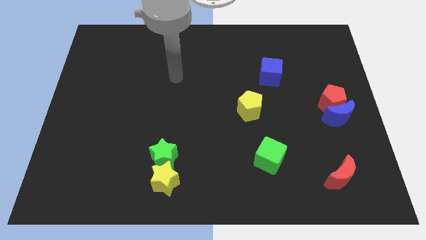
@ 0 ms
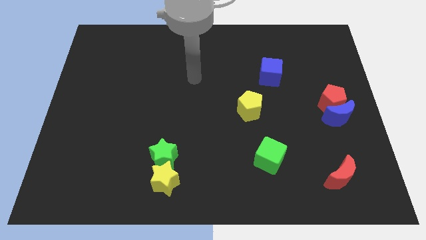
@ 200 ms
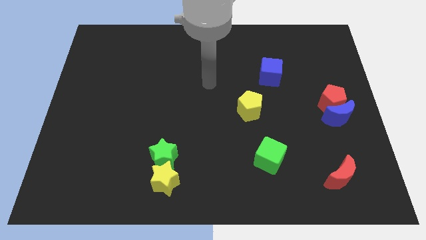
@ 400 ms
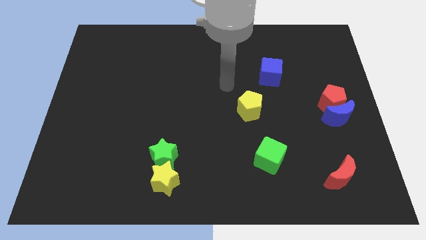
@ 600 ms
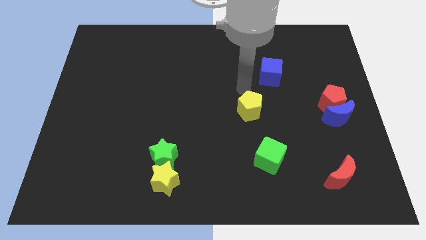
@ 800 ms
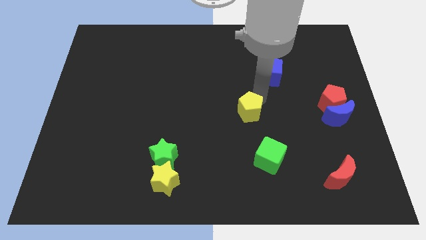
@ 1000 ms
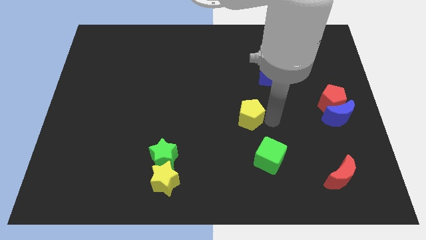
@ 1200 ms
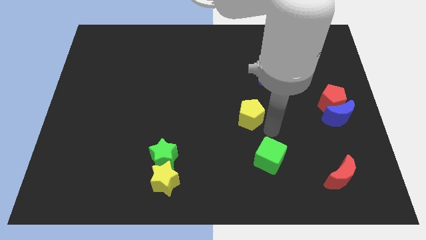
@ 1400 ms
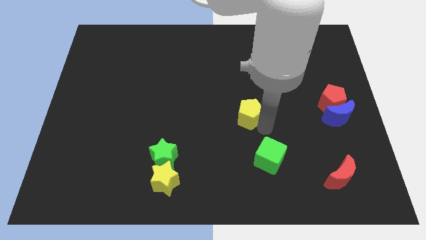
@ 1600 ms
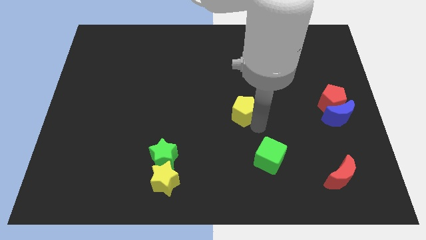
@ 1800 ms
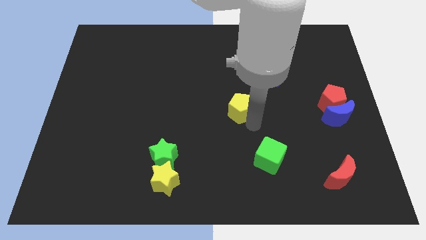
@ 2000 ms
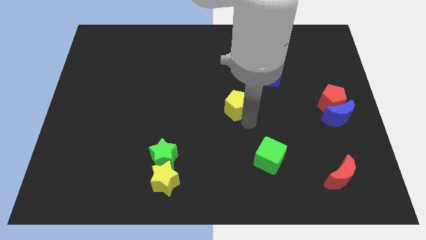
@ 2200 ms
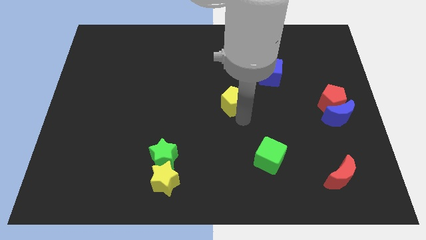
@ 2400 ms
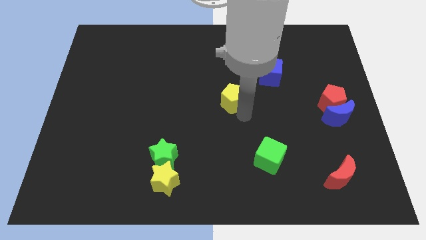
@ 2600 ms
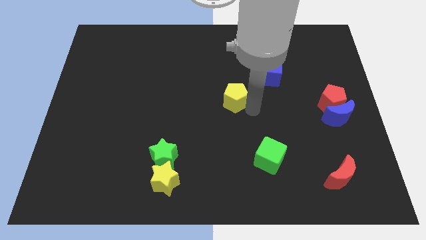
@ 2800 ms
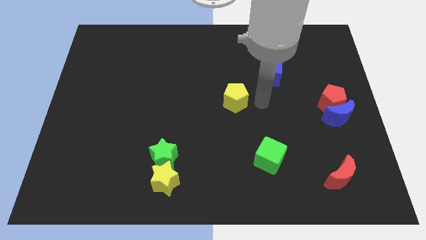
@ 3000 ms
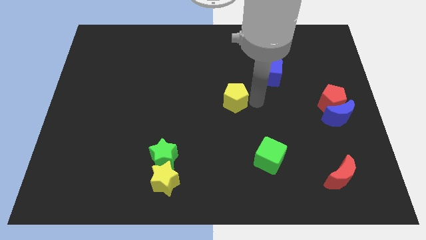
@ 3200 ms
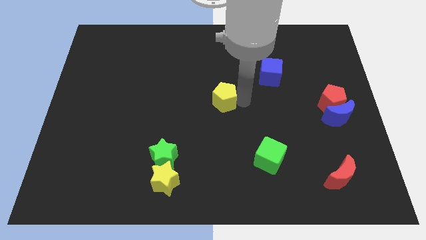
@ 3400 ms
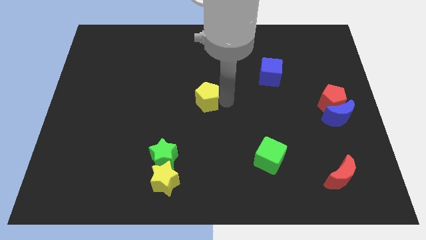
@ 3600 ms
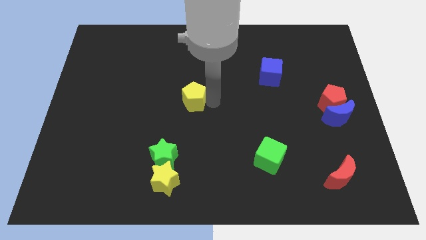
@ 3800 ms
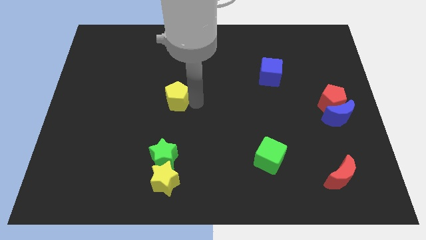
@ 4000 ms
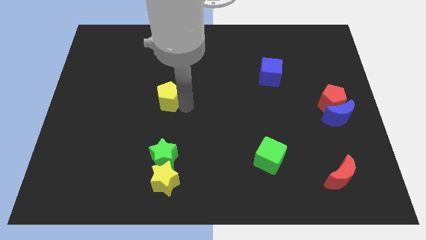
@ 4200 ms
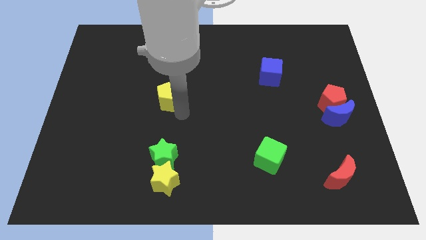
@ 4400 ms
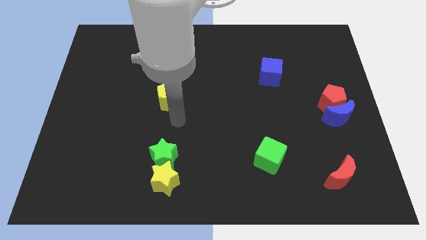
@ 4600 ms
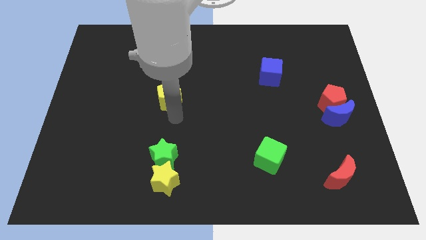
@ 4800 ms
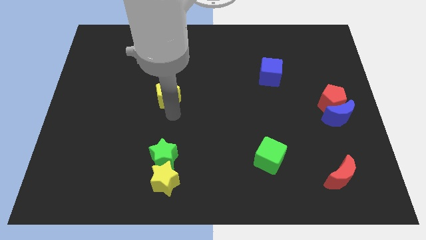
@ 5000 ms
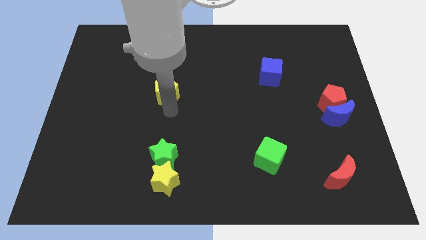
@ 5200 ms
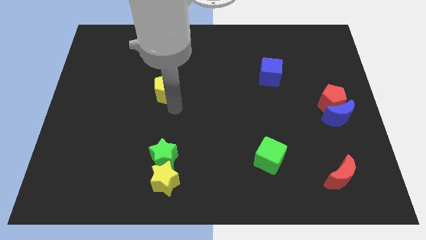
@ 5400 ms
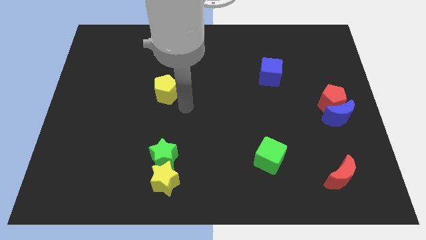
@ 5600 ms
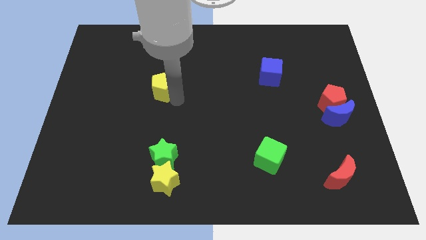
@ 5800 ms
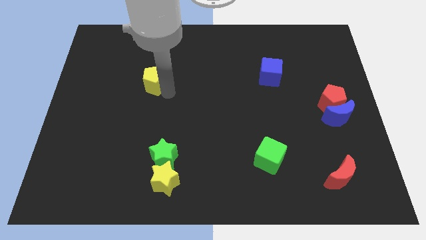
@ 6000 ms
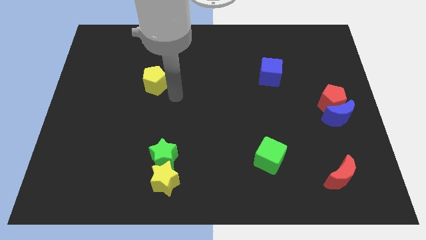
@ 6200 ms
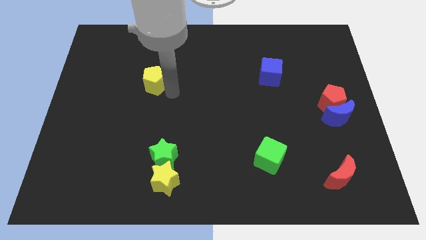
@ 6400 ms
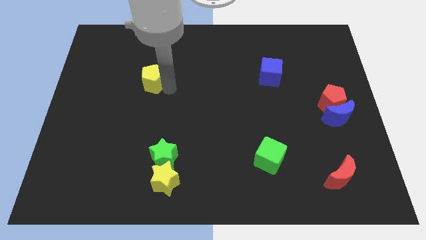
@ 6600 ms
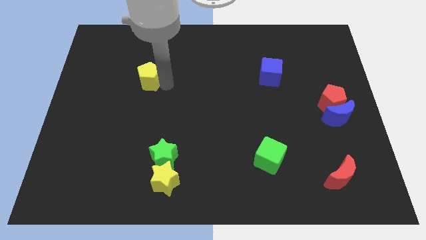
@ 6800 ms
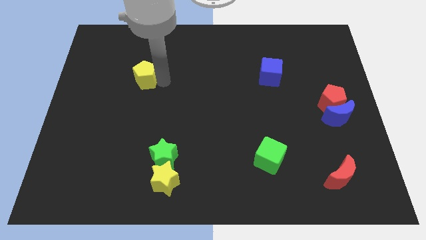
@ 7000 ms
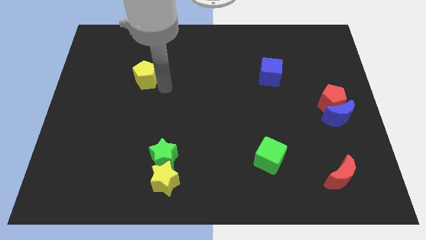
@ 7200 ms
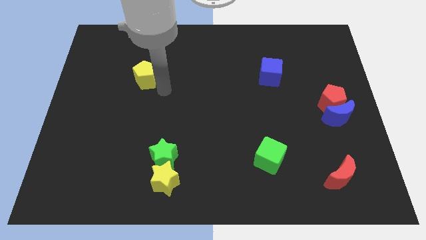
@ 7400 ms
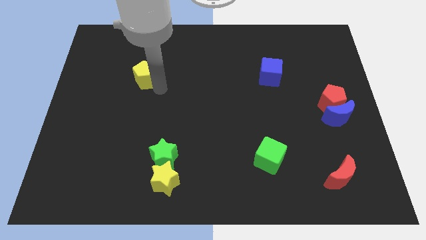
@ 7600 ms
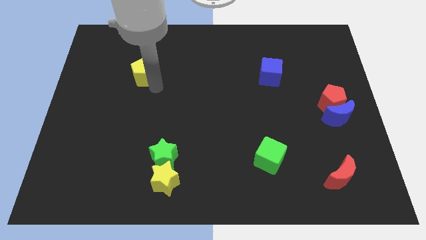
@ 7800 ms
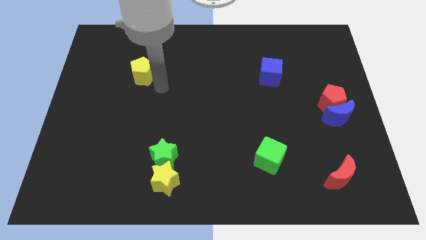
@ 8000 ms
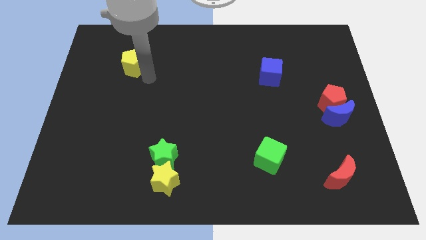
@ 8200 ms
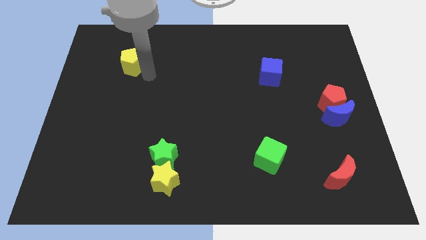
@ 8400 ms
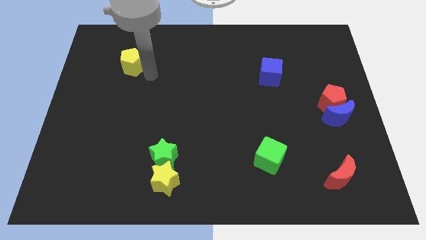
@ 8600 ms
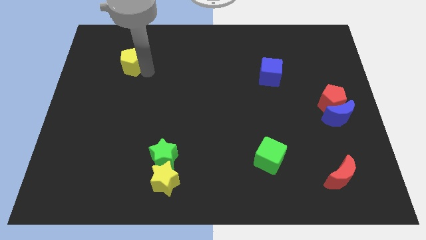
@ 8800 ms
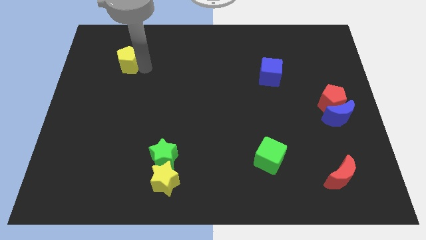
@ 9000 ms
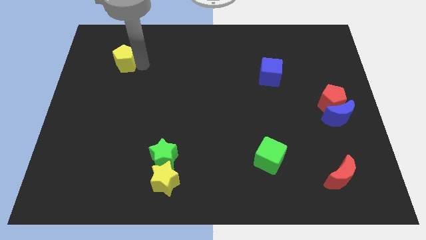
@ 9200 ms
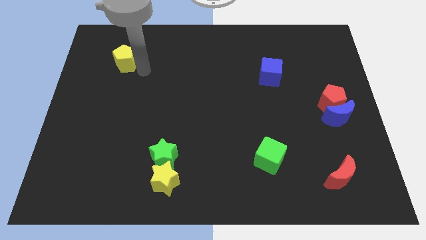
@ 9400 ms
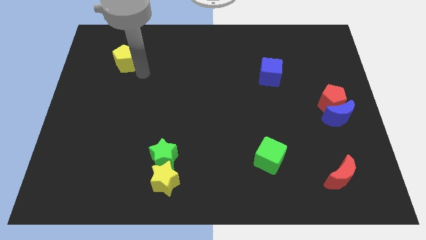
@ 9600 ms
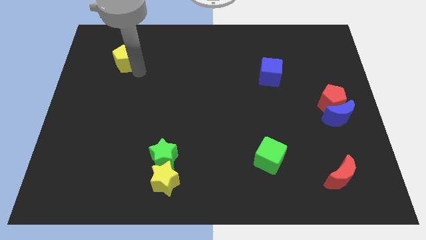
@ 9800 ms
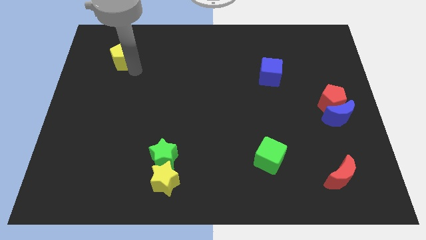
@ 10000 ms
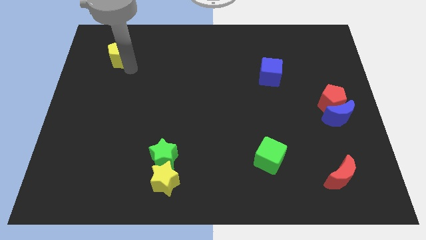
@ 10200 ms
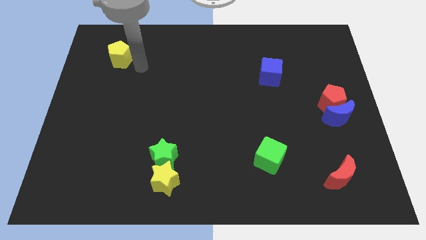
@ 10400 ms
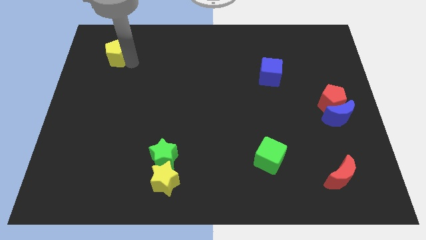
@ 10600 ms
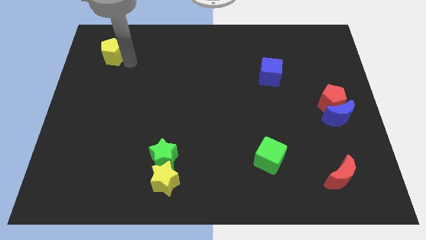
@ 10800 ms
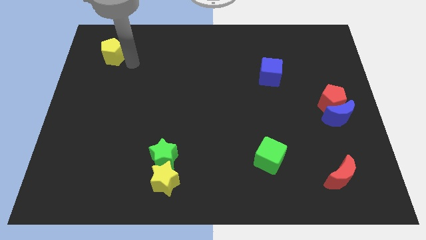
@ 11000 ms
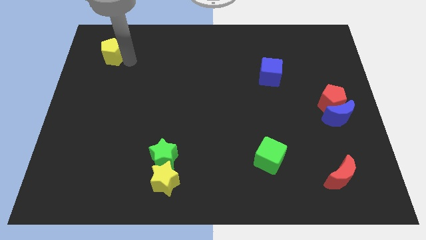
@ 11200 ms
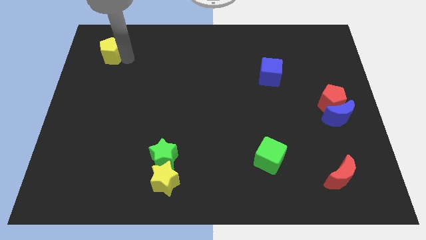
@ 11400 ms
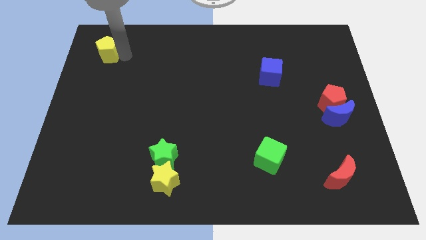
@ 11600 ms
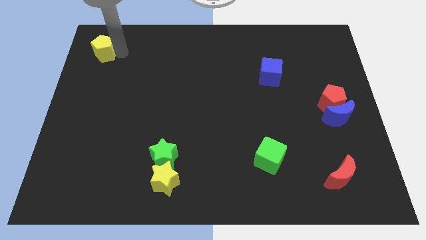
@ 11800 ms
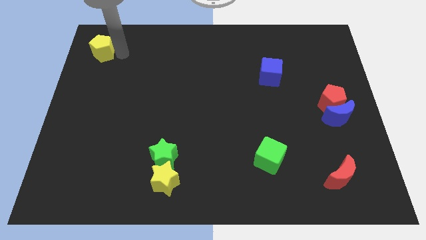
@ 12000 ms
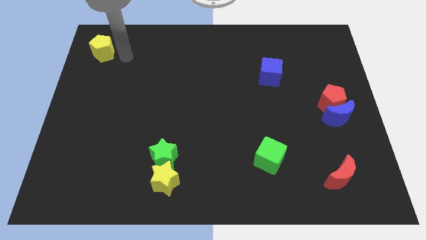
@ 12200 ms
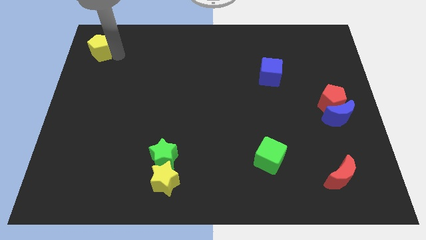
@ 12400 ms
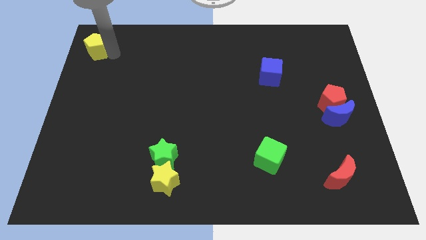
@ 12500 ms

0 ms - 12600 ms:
move the yellow pentagon to the top left
